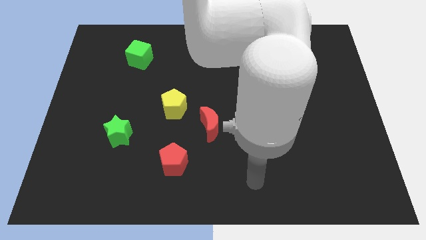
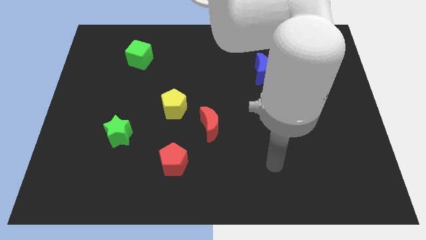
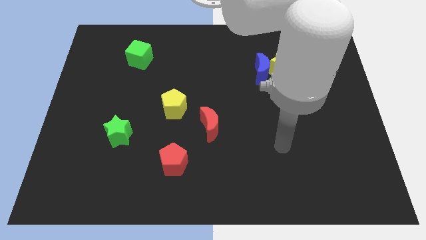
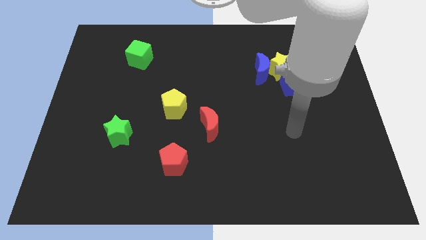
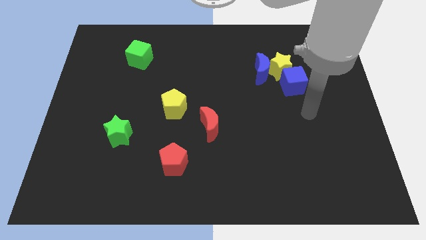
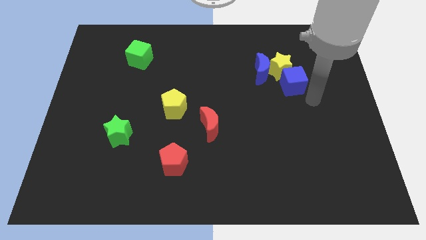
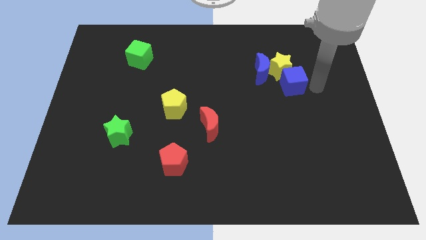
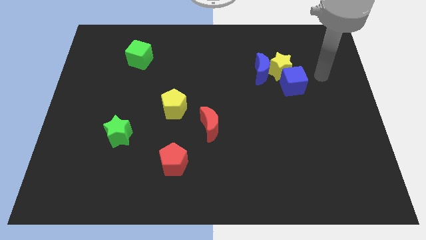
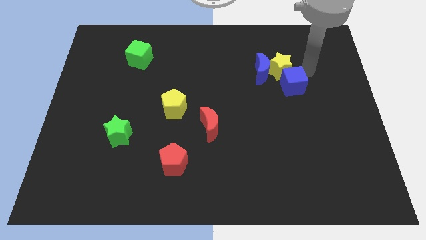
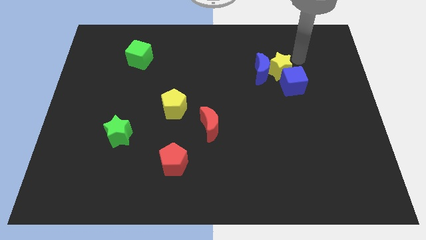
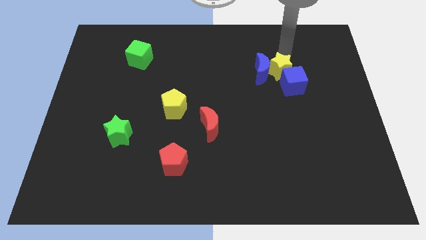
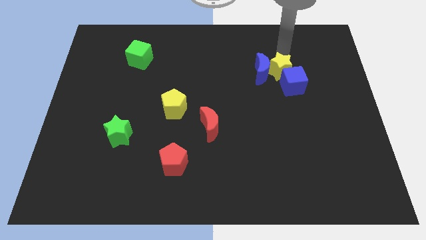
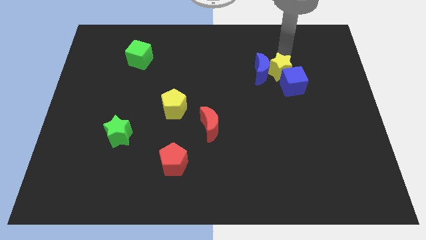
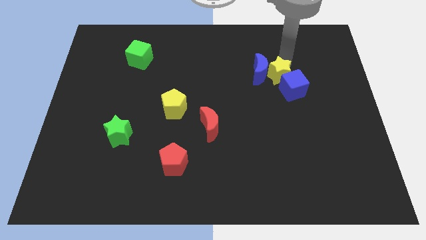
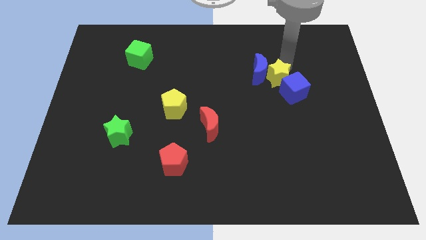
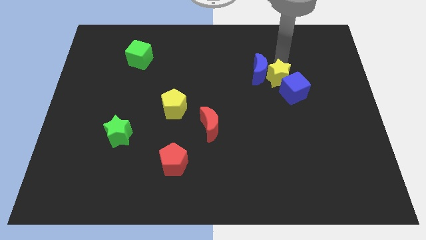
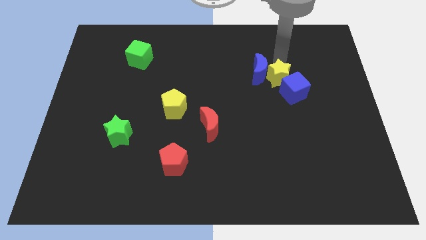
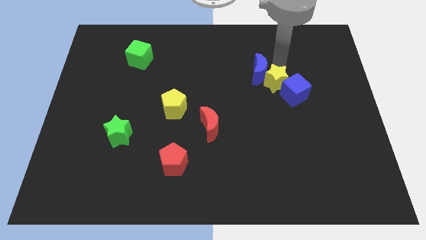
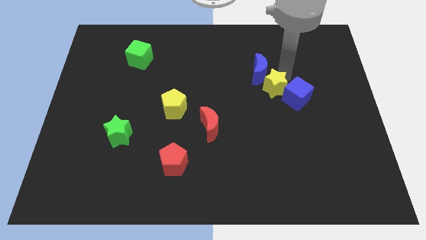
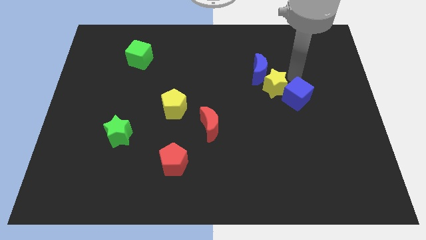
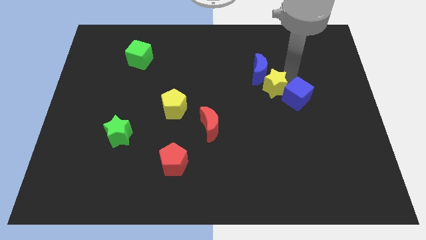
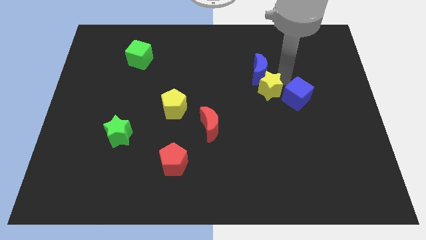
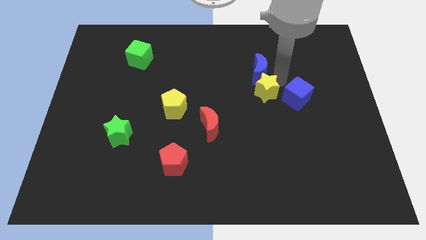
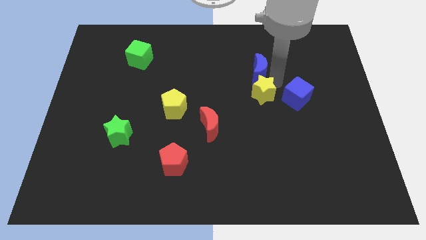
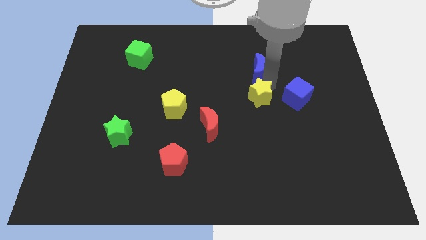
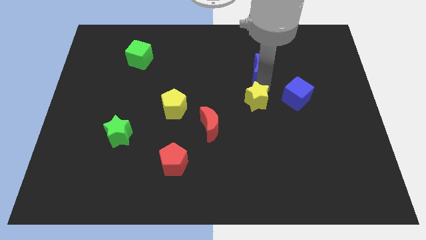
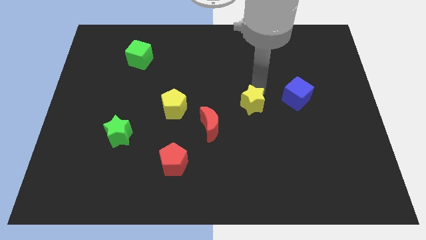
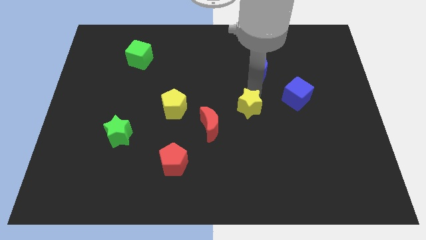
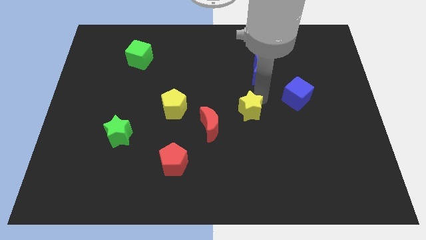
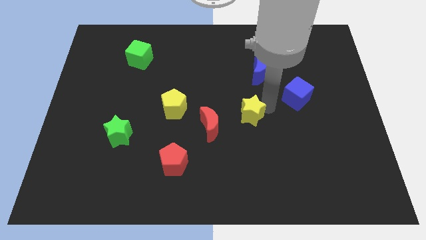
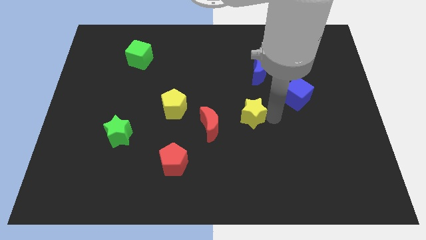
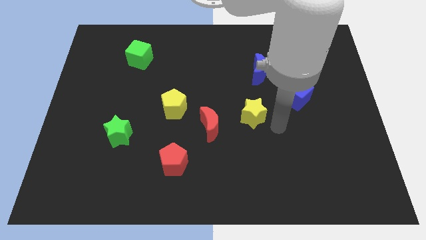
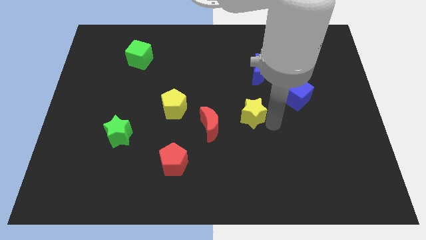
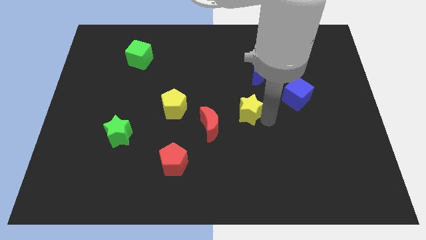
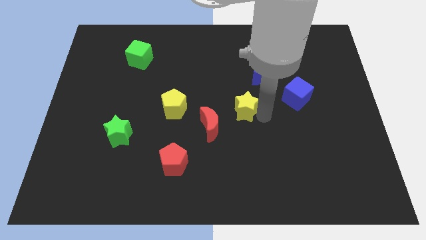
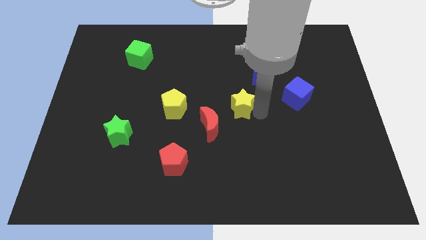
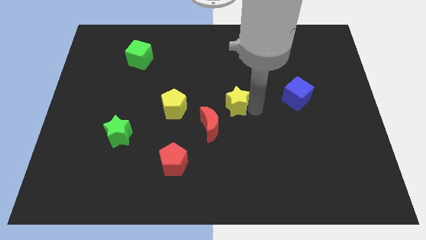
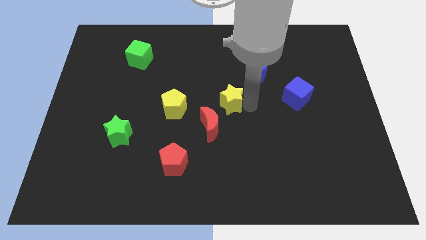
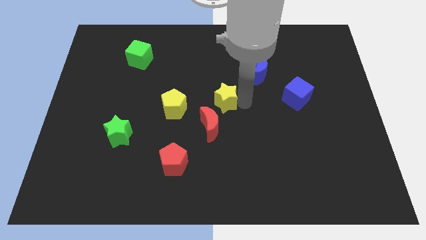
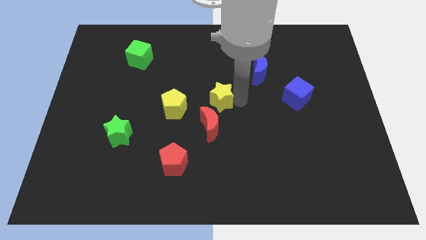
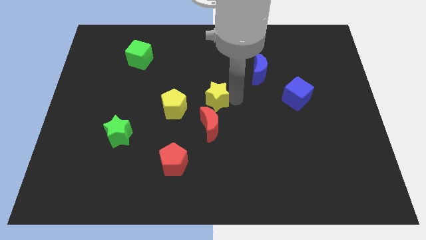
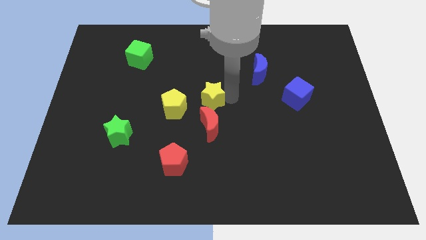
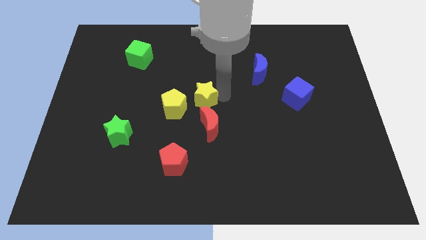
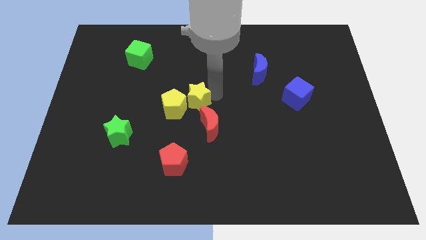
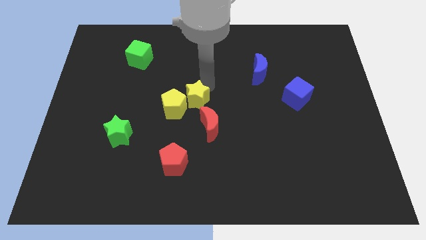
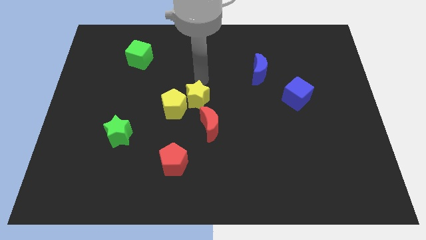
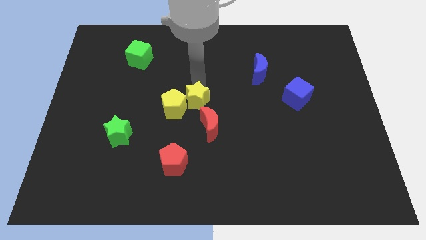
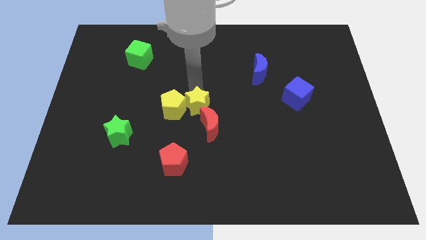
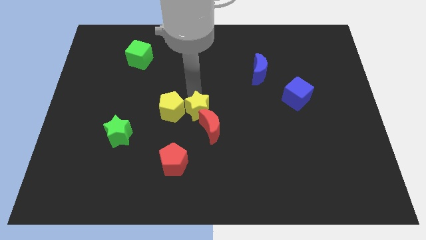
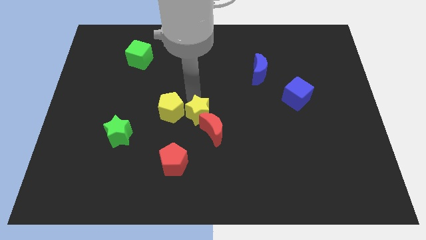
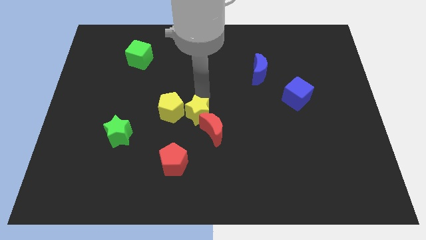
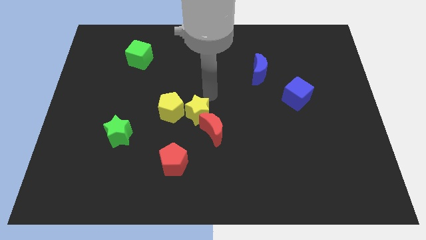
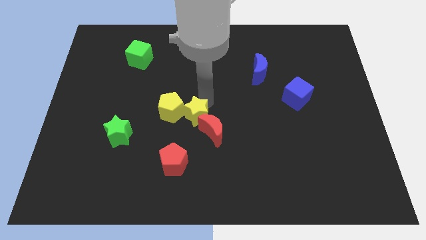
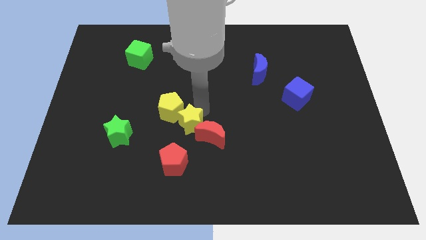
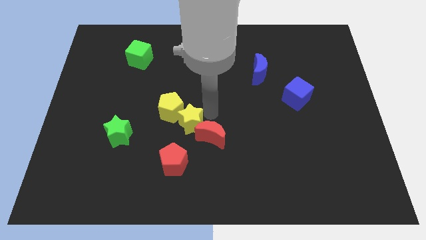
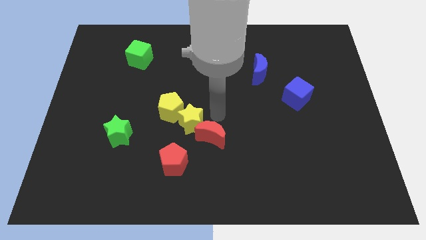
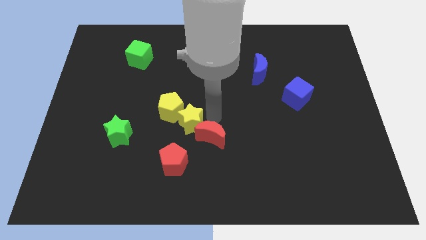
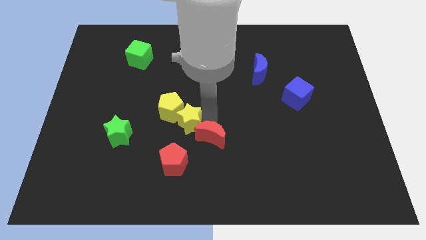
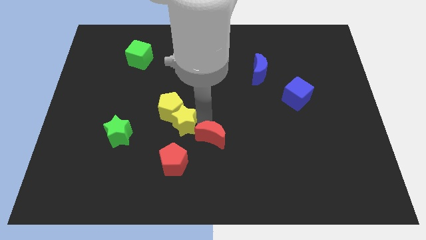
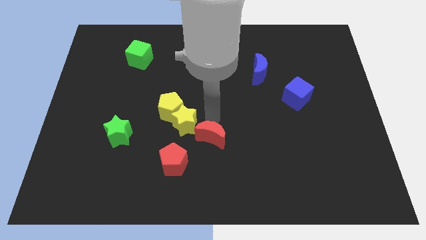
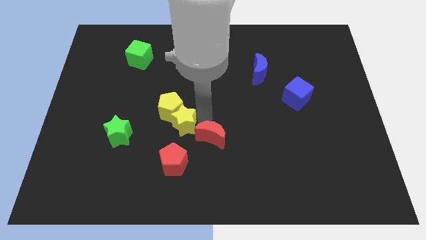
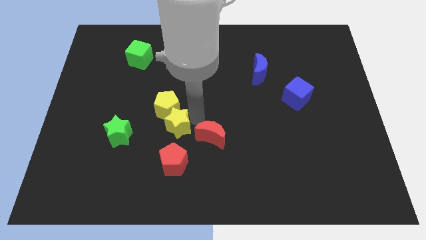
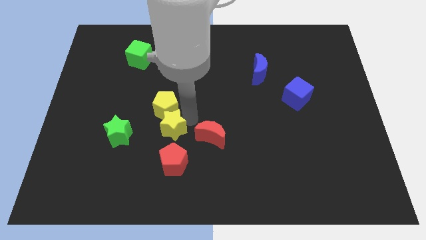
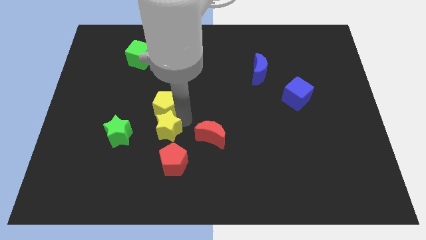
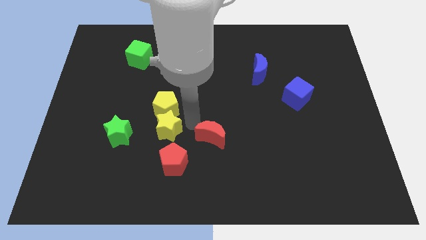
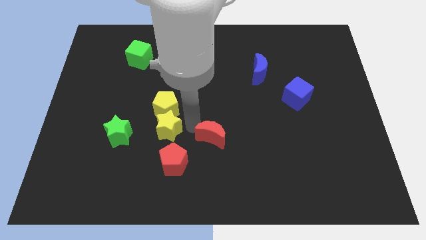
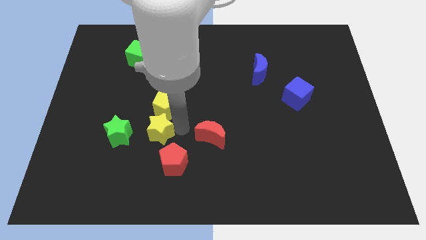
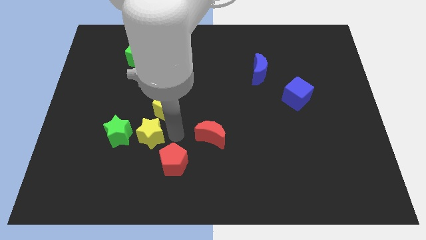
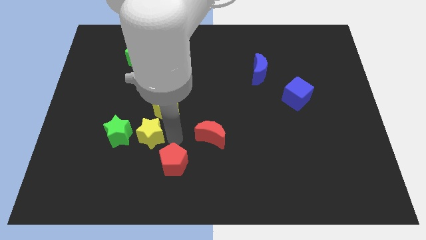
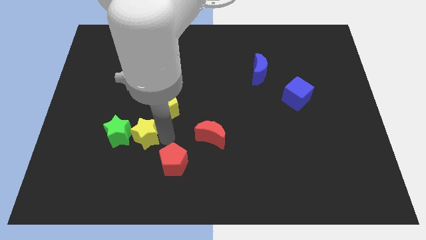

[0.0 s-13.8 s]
move the yellow star next to the green star
